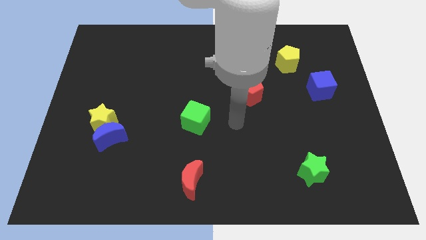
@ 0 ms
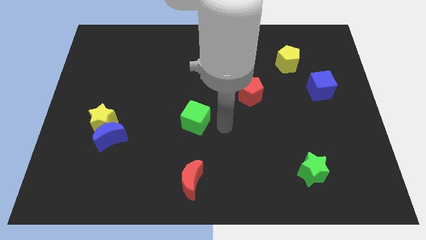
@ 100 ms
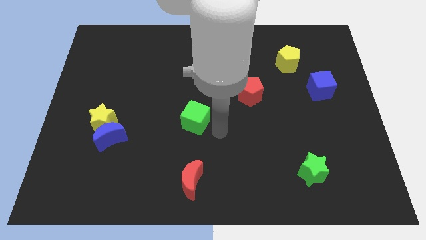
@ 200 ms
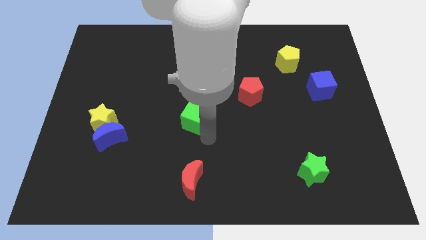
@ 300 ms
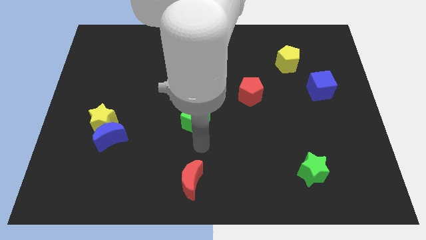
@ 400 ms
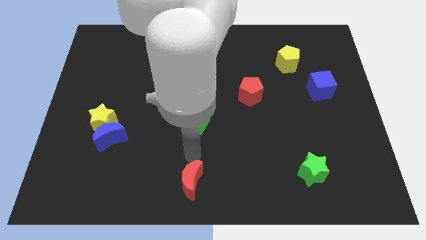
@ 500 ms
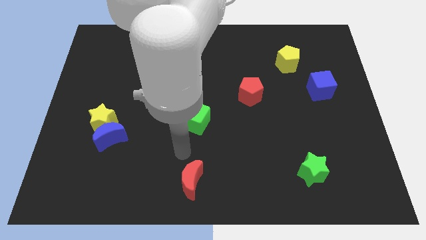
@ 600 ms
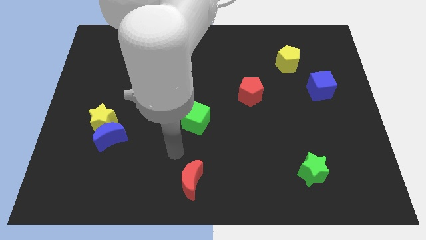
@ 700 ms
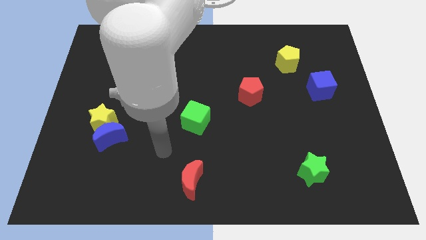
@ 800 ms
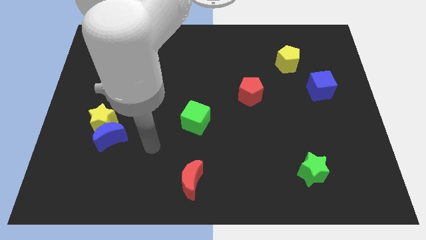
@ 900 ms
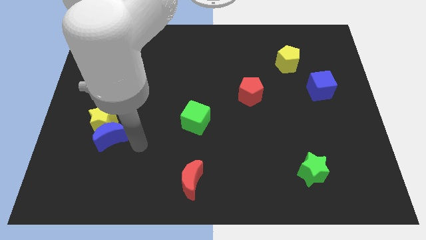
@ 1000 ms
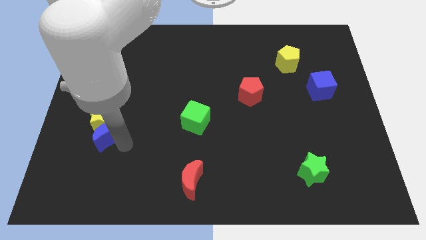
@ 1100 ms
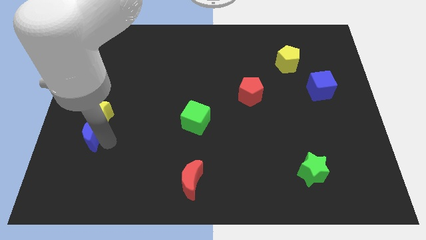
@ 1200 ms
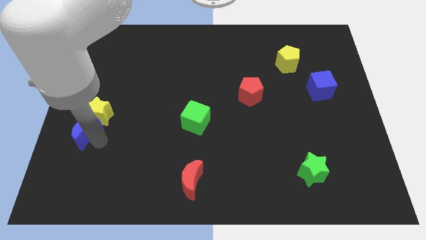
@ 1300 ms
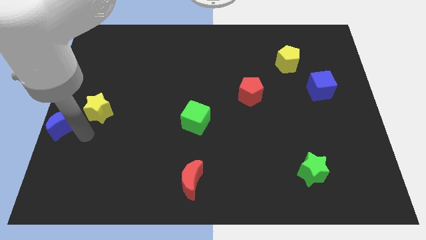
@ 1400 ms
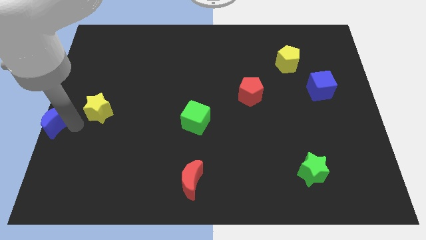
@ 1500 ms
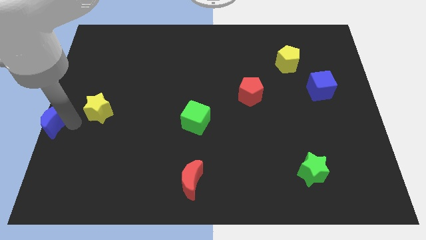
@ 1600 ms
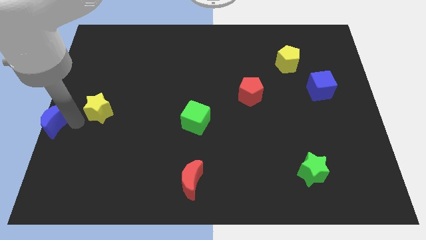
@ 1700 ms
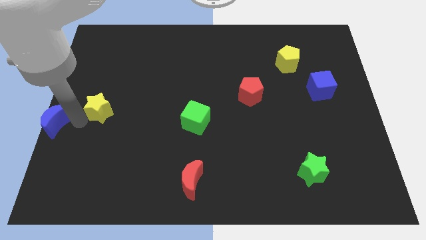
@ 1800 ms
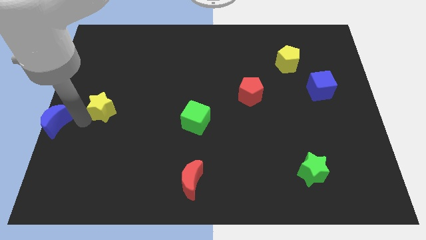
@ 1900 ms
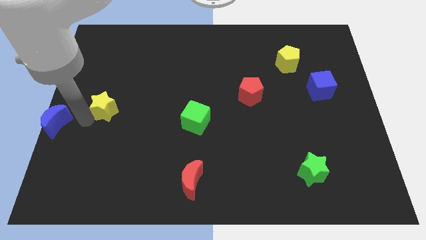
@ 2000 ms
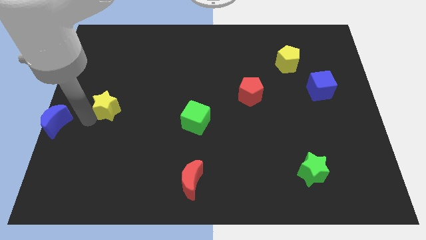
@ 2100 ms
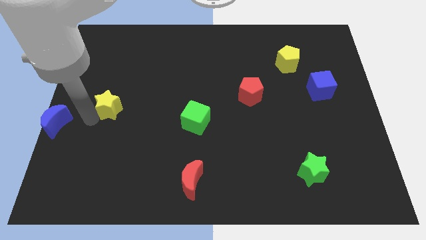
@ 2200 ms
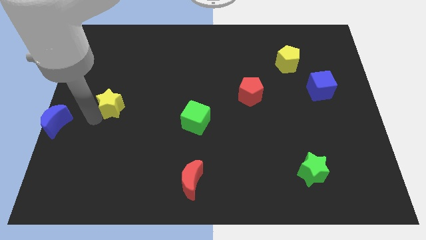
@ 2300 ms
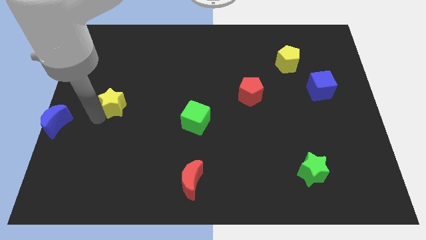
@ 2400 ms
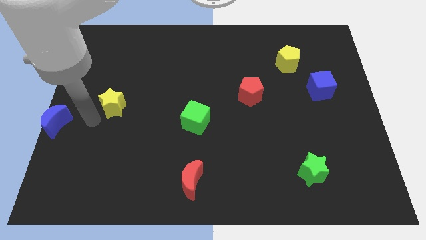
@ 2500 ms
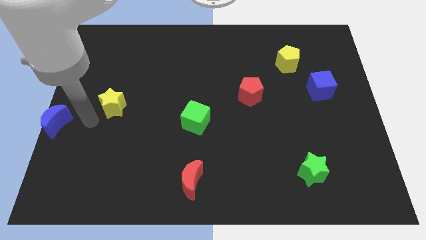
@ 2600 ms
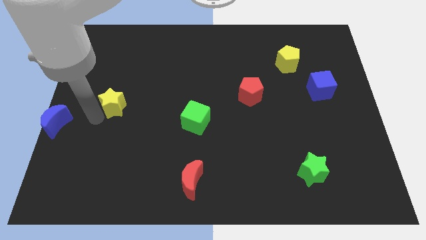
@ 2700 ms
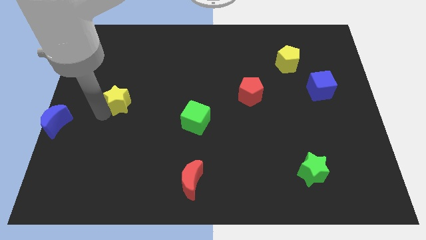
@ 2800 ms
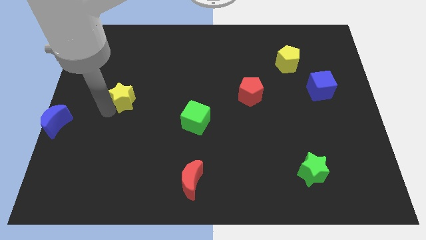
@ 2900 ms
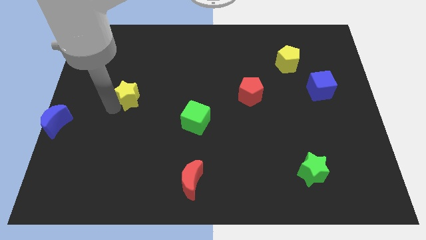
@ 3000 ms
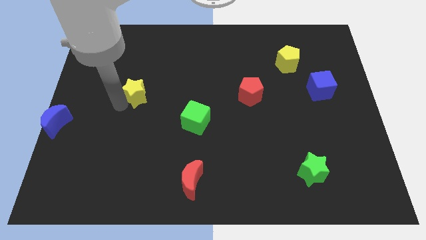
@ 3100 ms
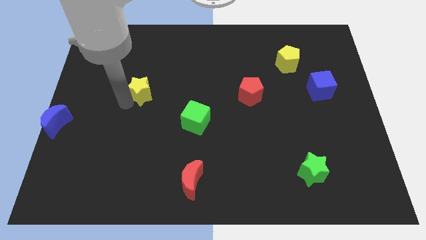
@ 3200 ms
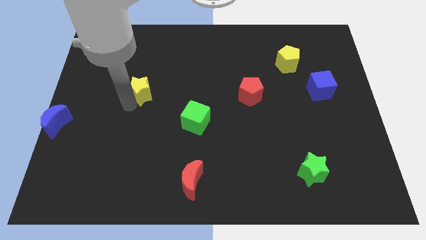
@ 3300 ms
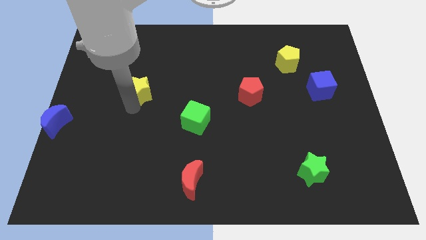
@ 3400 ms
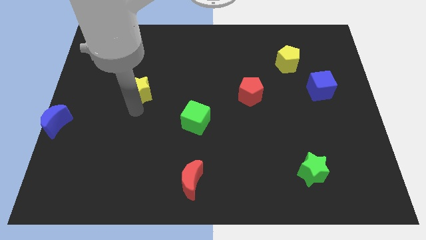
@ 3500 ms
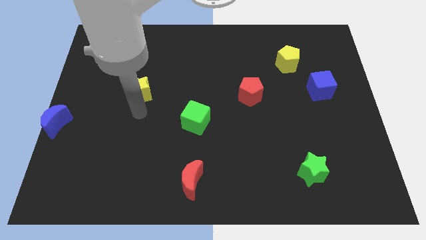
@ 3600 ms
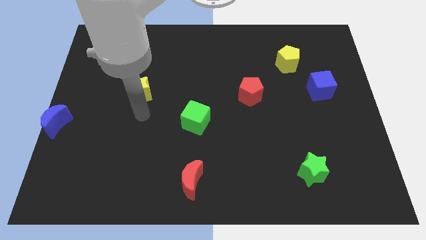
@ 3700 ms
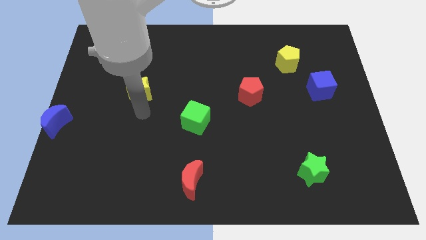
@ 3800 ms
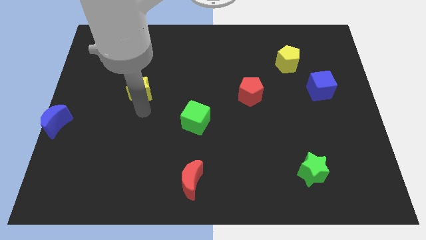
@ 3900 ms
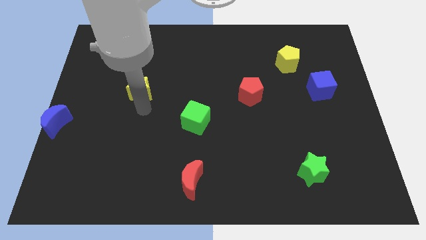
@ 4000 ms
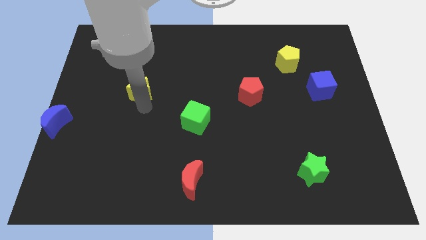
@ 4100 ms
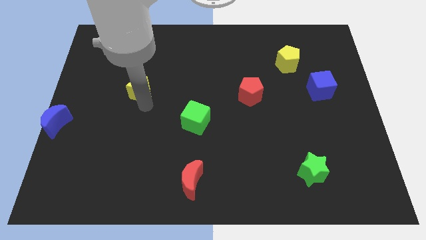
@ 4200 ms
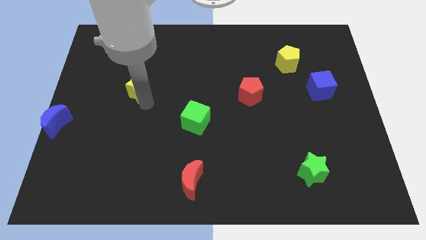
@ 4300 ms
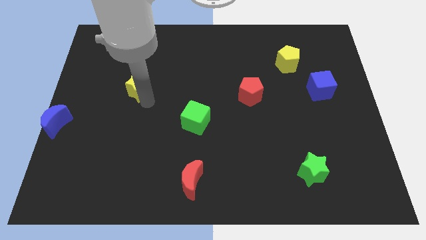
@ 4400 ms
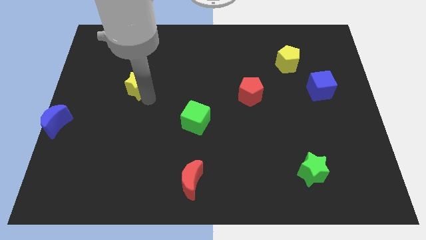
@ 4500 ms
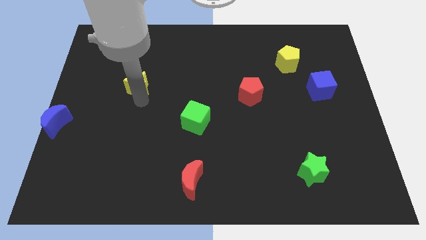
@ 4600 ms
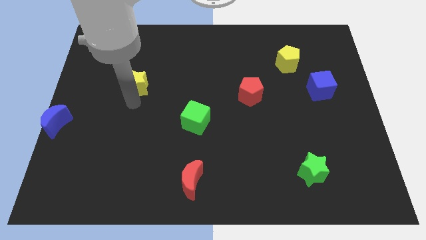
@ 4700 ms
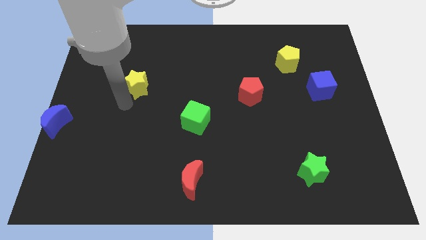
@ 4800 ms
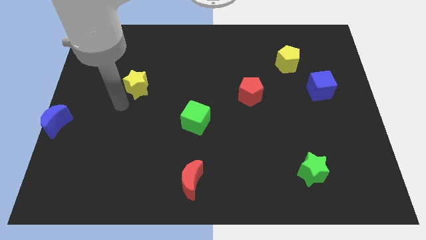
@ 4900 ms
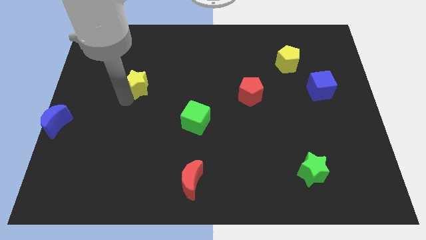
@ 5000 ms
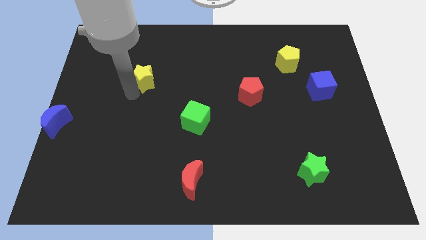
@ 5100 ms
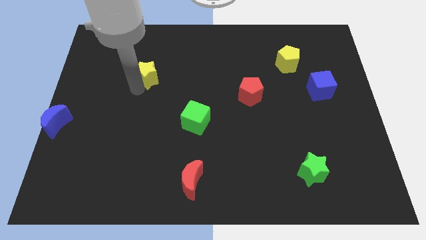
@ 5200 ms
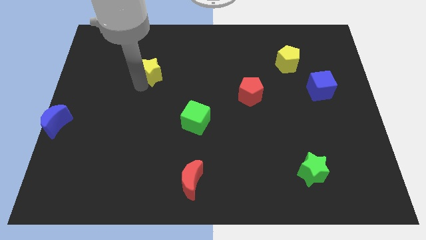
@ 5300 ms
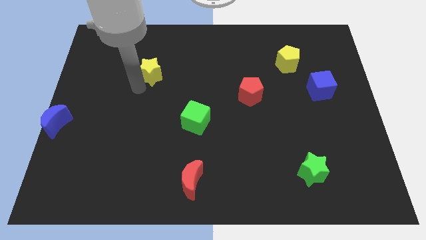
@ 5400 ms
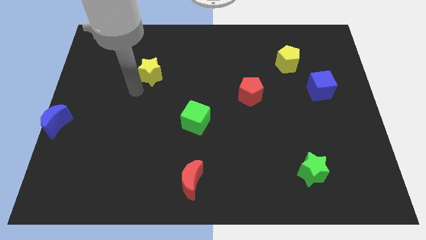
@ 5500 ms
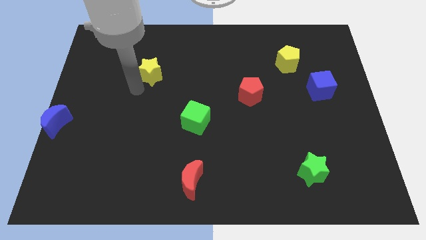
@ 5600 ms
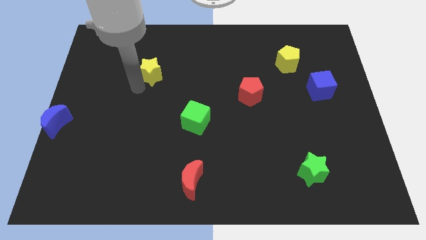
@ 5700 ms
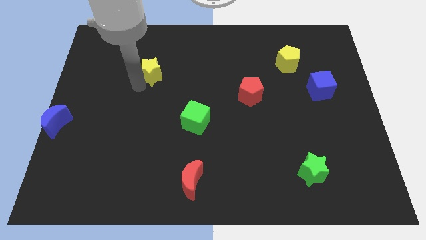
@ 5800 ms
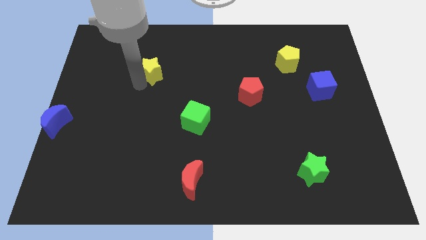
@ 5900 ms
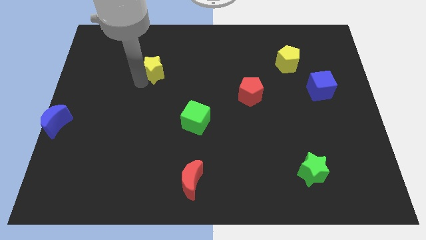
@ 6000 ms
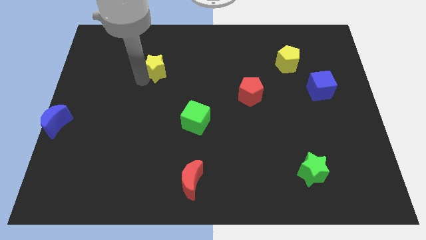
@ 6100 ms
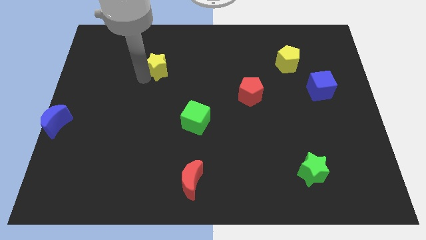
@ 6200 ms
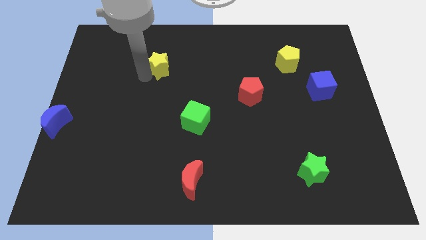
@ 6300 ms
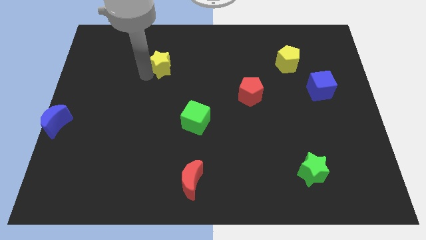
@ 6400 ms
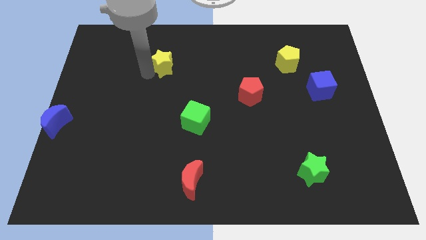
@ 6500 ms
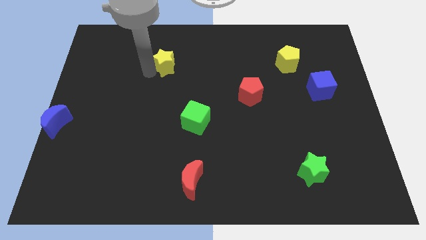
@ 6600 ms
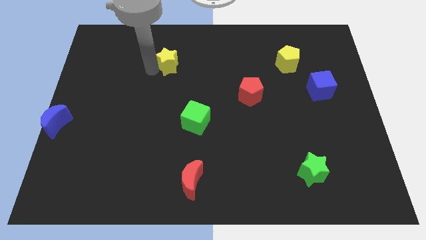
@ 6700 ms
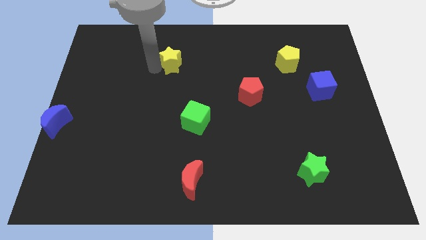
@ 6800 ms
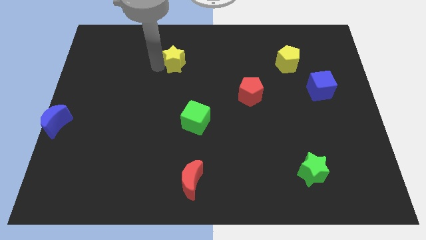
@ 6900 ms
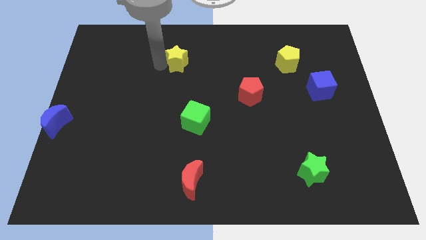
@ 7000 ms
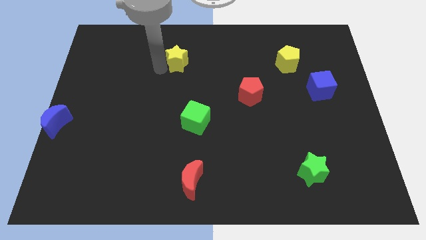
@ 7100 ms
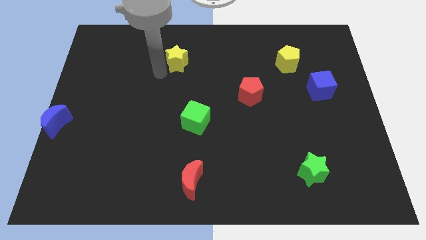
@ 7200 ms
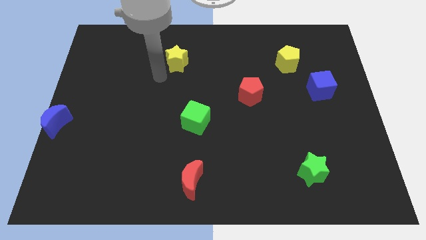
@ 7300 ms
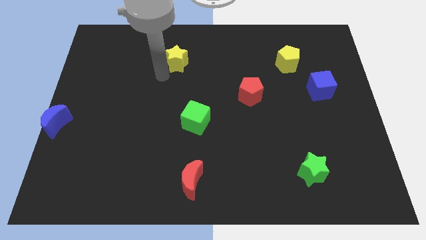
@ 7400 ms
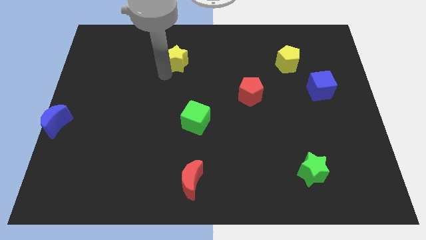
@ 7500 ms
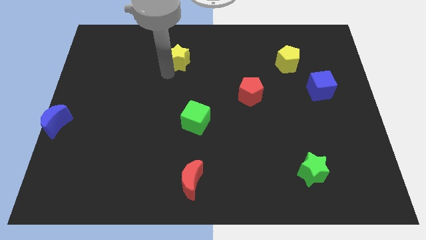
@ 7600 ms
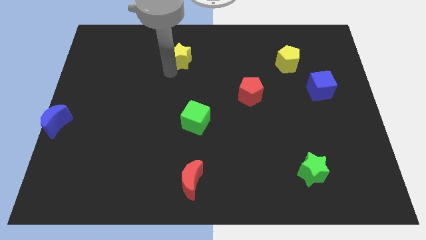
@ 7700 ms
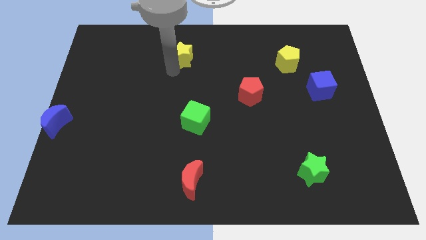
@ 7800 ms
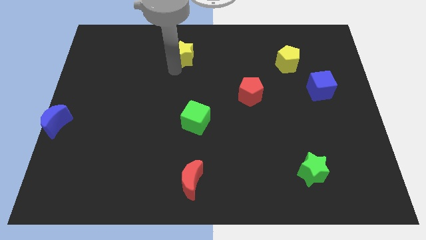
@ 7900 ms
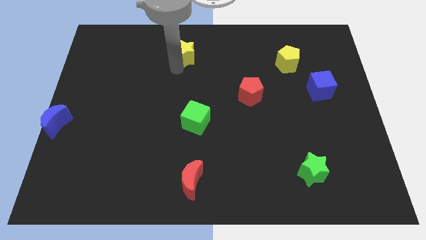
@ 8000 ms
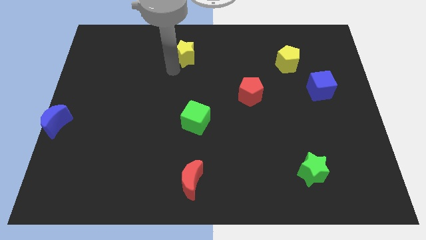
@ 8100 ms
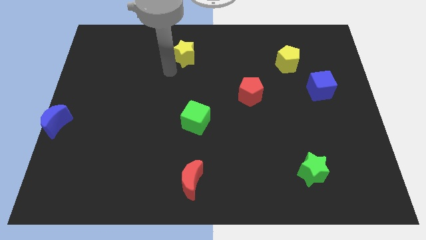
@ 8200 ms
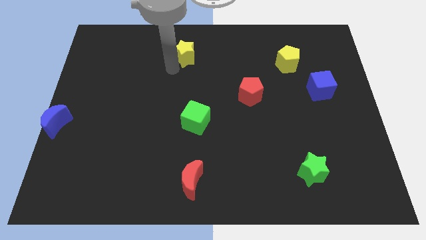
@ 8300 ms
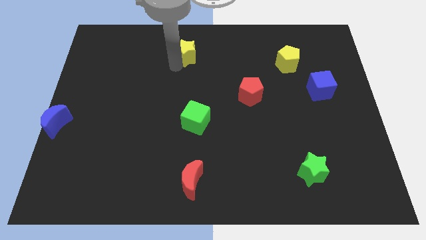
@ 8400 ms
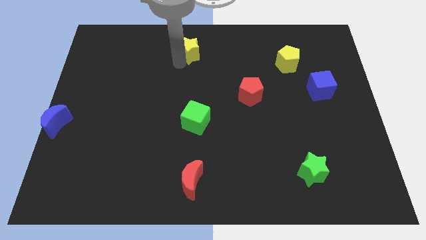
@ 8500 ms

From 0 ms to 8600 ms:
put the yellow star to the top side
